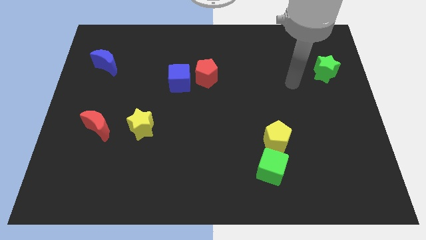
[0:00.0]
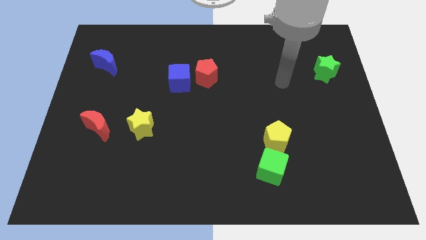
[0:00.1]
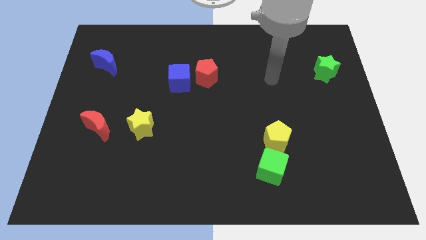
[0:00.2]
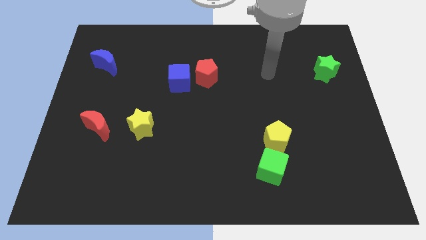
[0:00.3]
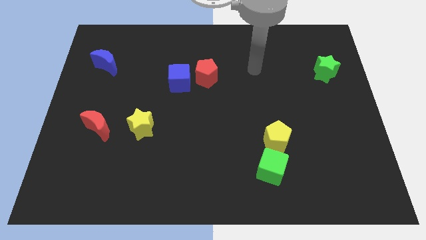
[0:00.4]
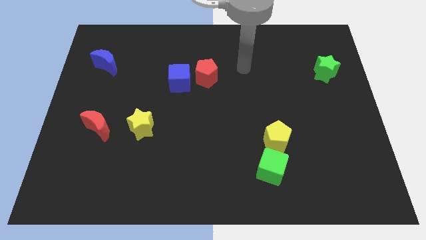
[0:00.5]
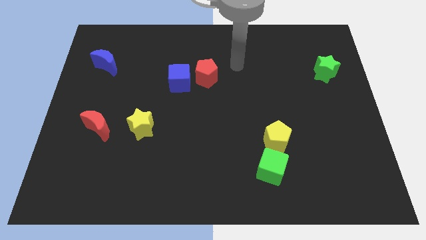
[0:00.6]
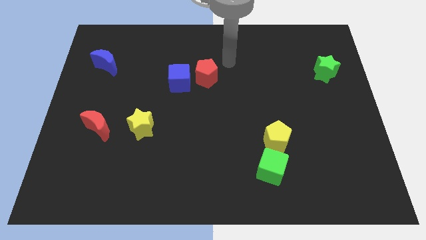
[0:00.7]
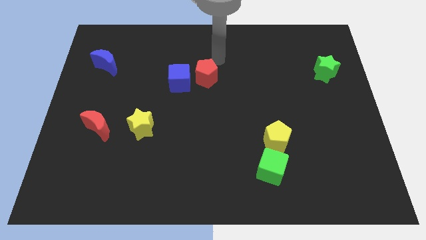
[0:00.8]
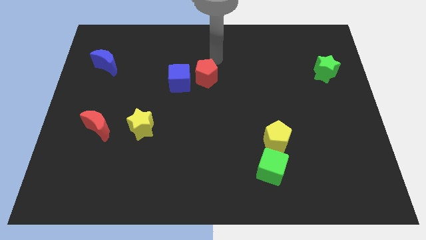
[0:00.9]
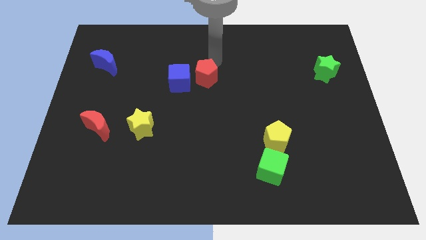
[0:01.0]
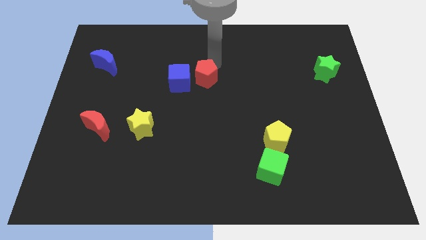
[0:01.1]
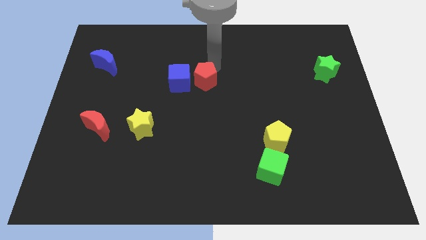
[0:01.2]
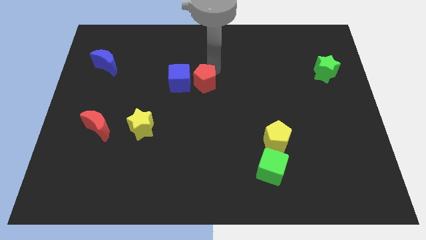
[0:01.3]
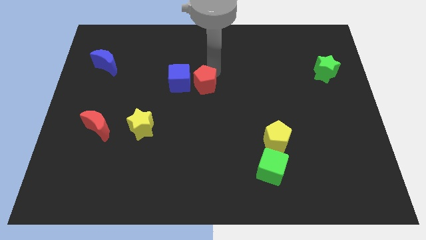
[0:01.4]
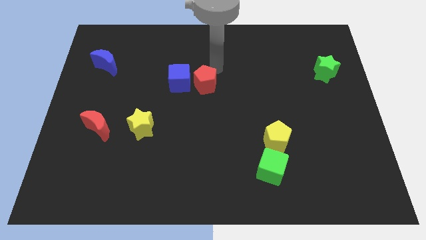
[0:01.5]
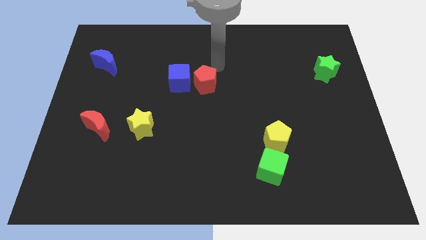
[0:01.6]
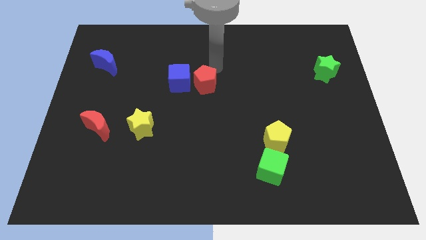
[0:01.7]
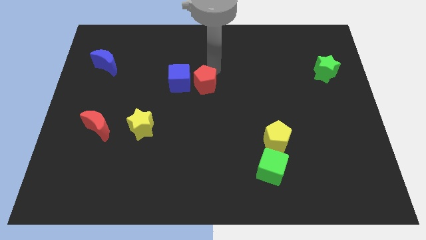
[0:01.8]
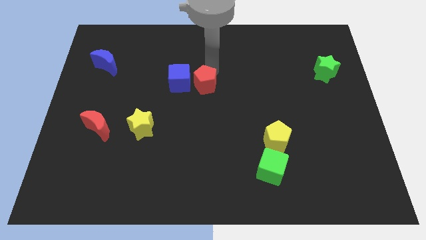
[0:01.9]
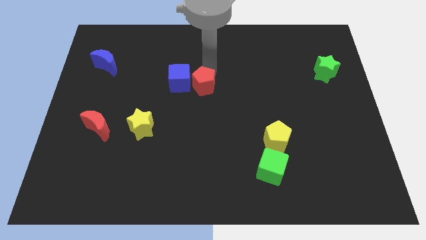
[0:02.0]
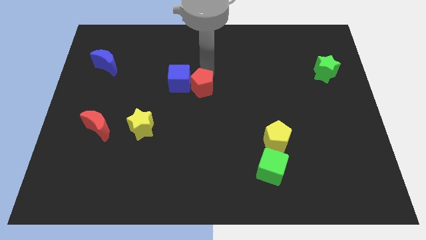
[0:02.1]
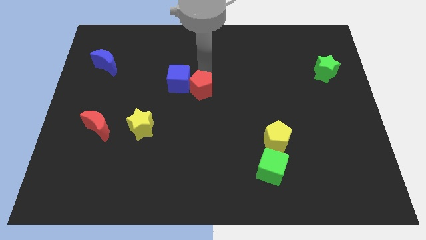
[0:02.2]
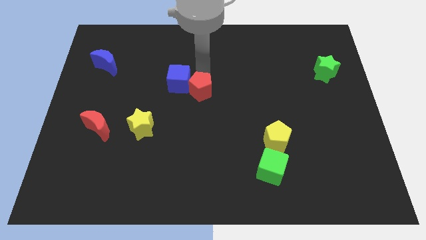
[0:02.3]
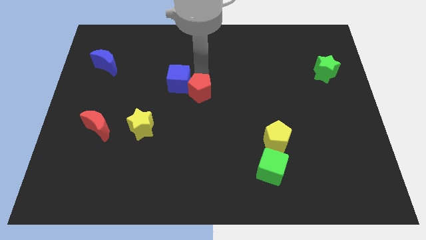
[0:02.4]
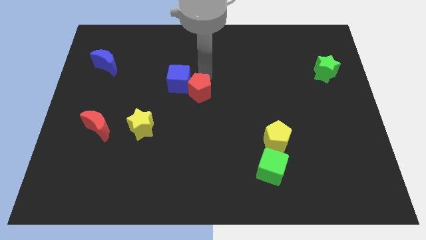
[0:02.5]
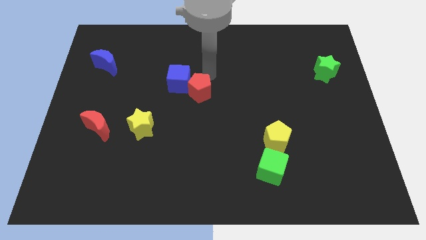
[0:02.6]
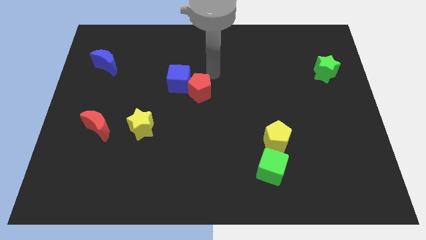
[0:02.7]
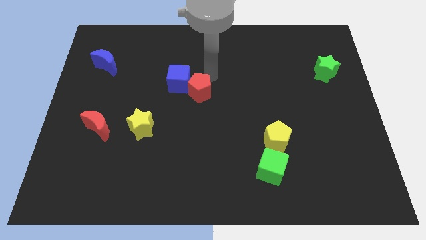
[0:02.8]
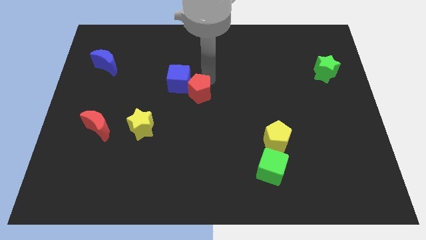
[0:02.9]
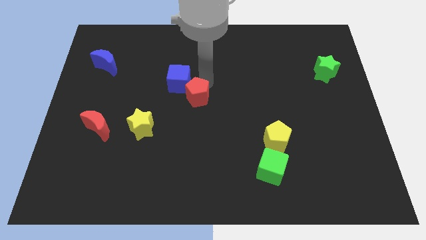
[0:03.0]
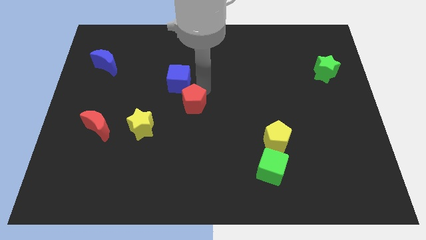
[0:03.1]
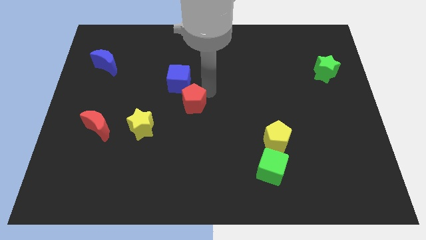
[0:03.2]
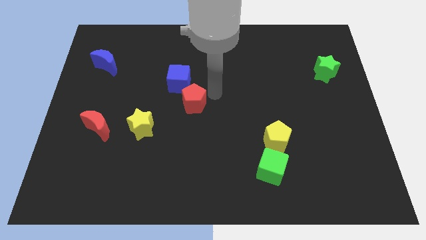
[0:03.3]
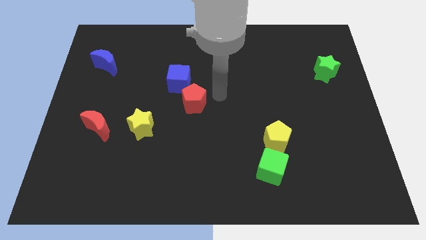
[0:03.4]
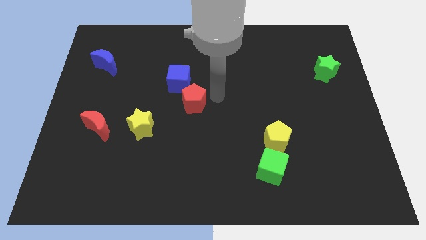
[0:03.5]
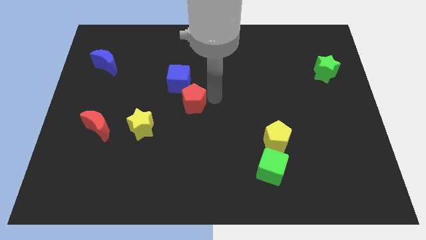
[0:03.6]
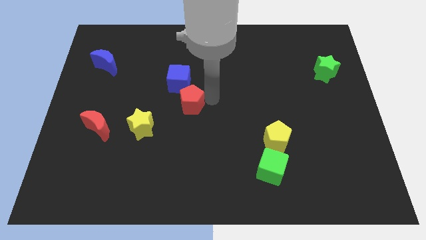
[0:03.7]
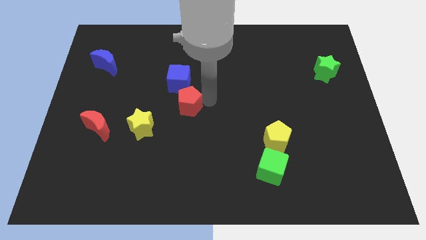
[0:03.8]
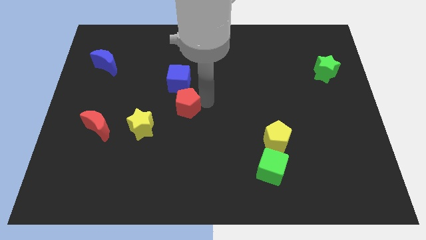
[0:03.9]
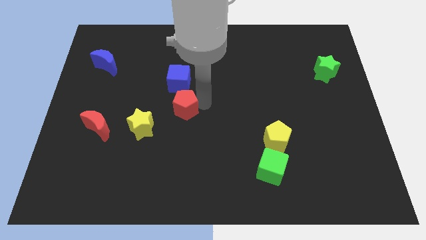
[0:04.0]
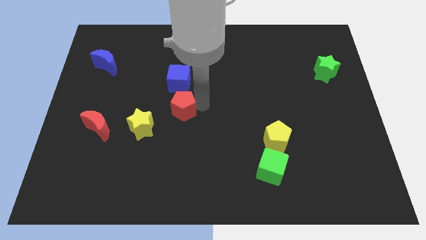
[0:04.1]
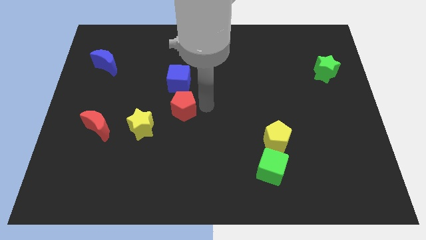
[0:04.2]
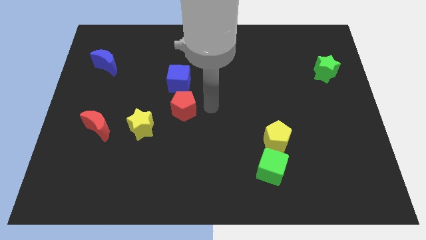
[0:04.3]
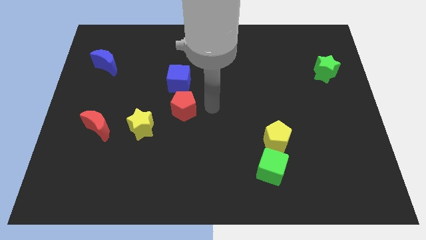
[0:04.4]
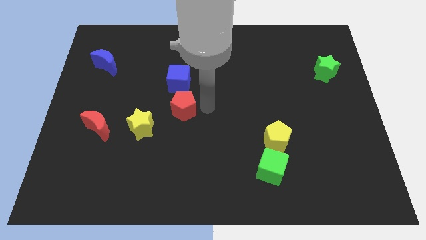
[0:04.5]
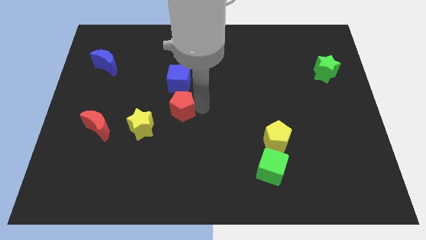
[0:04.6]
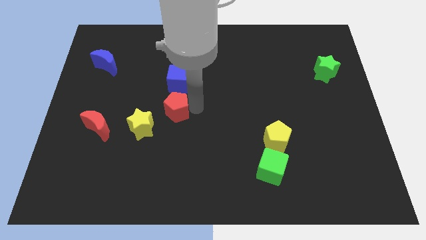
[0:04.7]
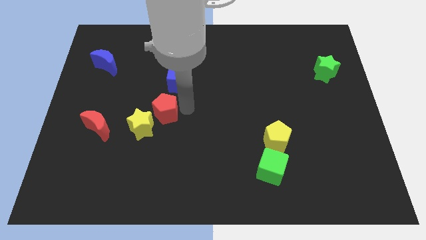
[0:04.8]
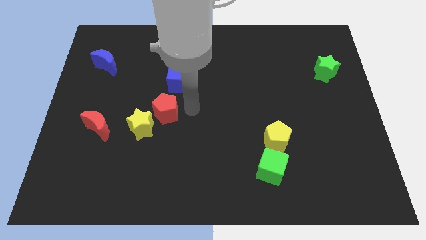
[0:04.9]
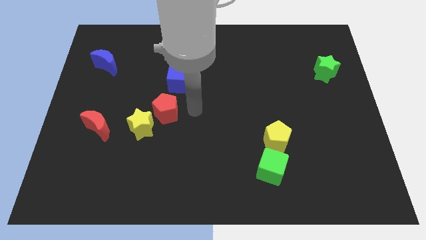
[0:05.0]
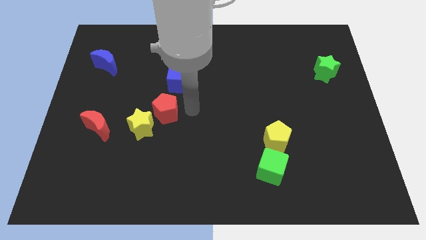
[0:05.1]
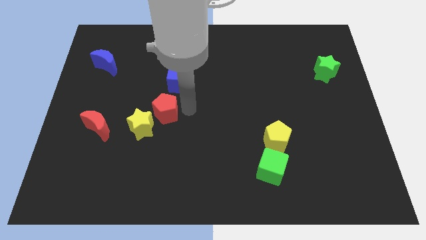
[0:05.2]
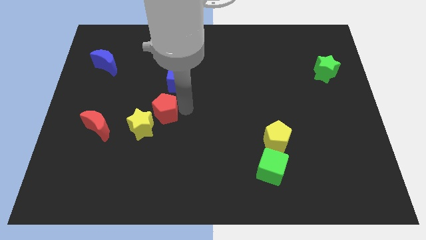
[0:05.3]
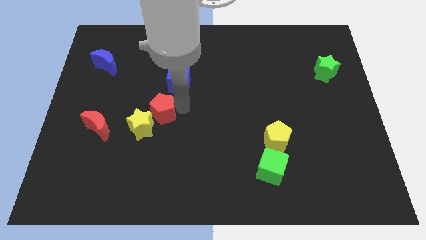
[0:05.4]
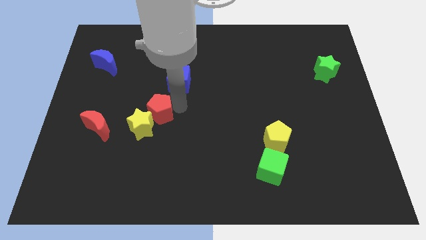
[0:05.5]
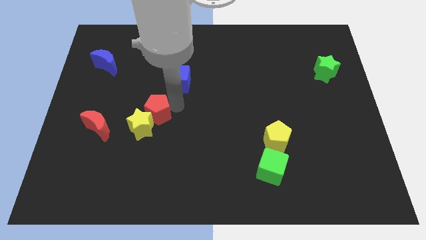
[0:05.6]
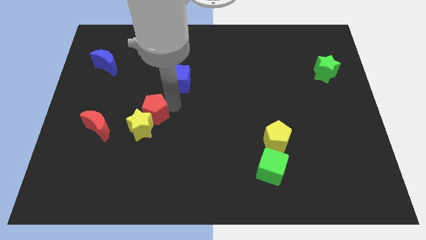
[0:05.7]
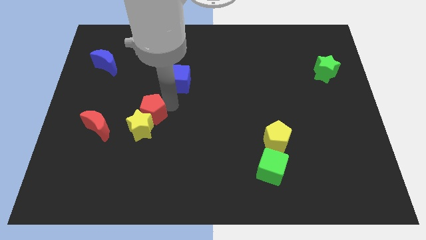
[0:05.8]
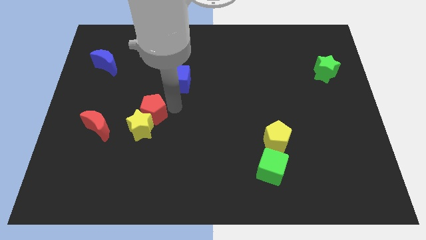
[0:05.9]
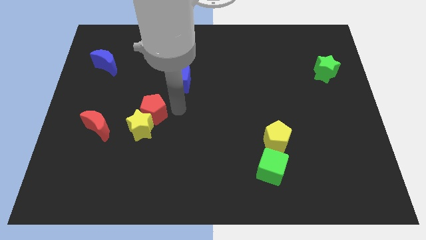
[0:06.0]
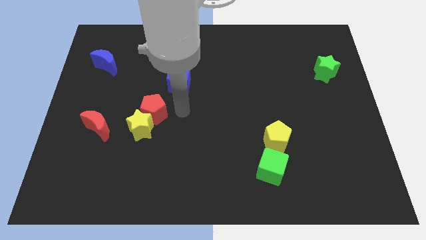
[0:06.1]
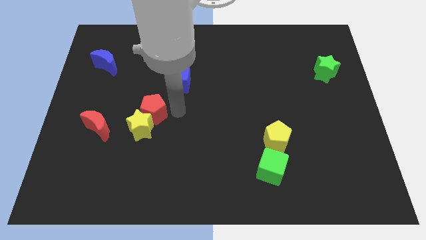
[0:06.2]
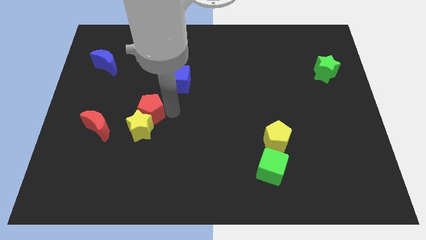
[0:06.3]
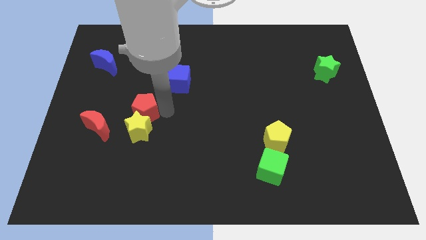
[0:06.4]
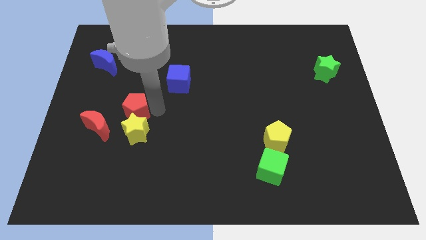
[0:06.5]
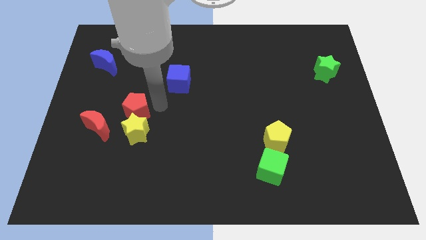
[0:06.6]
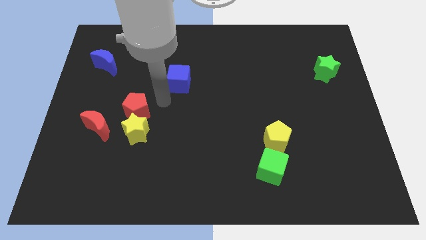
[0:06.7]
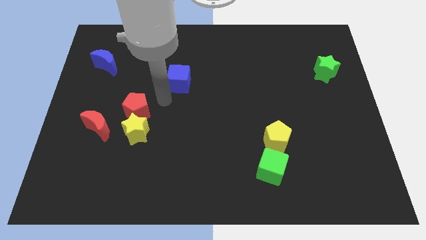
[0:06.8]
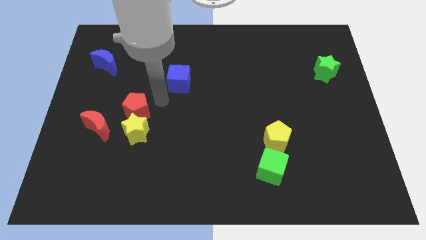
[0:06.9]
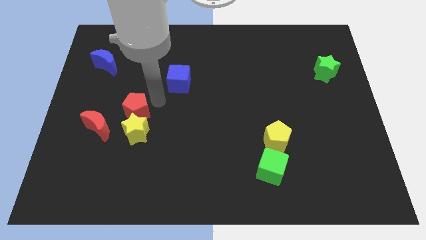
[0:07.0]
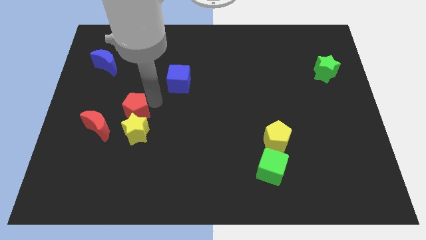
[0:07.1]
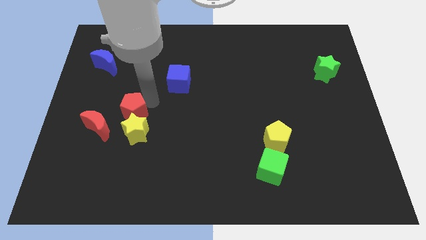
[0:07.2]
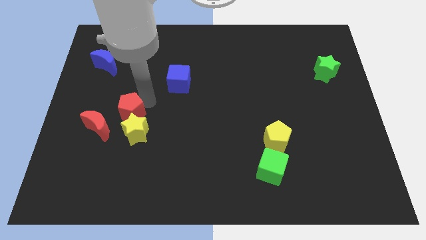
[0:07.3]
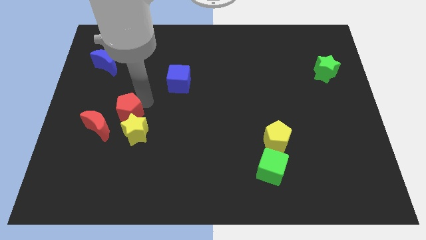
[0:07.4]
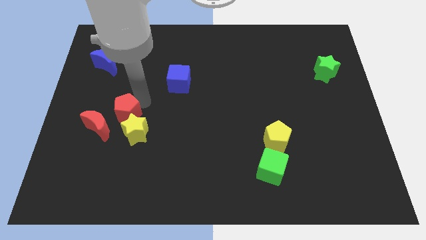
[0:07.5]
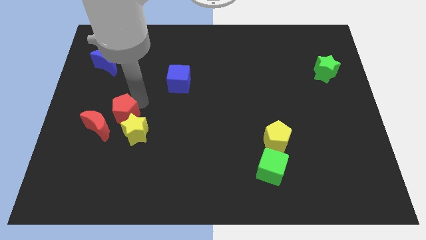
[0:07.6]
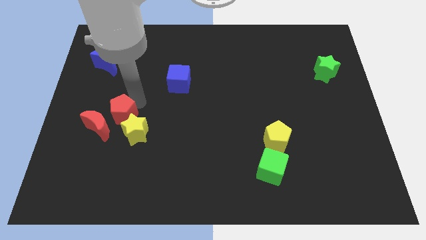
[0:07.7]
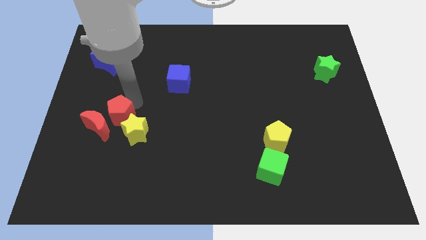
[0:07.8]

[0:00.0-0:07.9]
move the red pentagon close to the red moon
